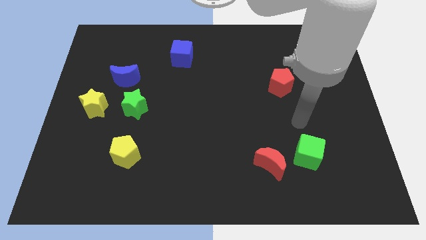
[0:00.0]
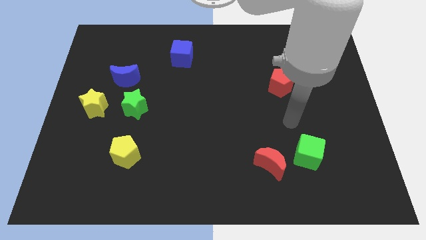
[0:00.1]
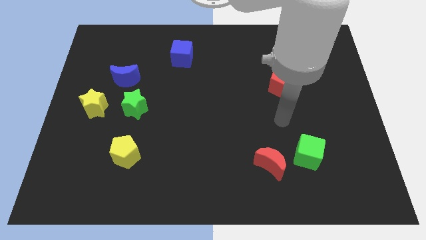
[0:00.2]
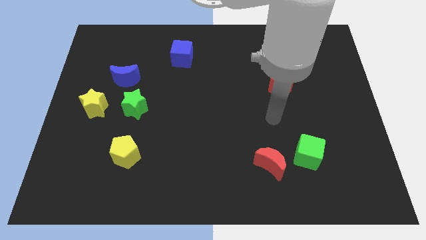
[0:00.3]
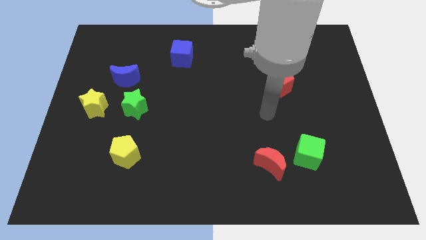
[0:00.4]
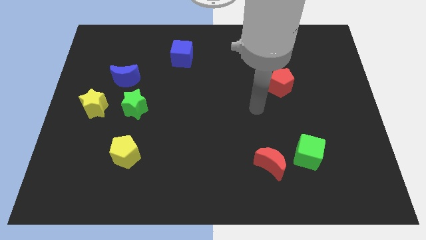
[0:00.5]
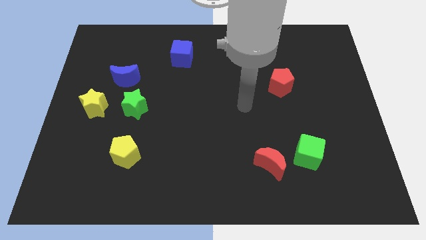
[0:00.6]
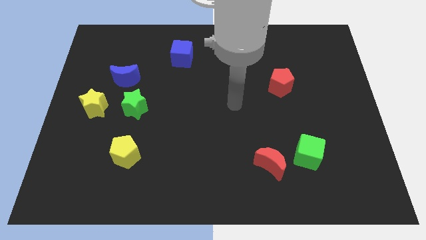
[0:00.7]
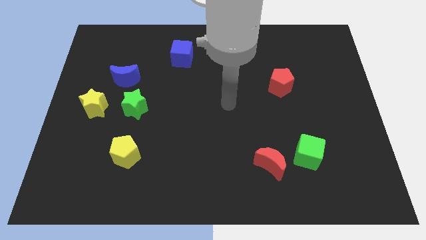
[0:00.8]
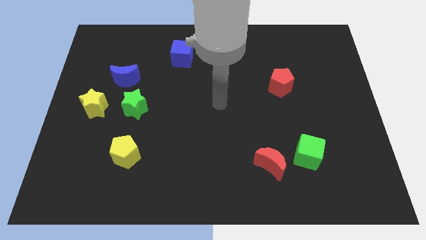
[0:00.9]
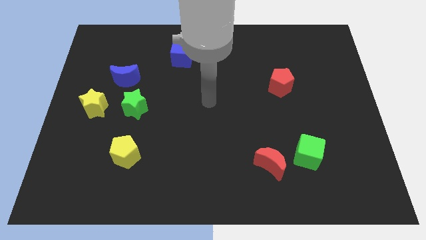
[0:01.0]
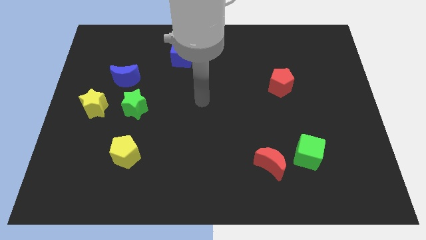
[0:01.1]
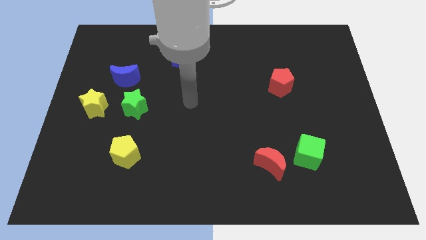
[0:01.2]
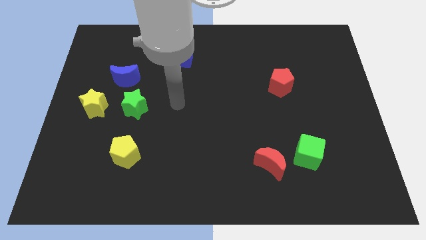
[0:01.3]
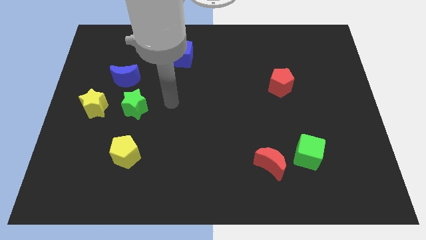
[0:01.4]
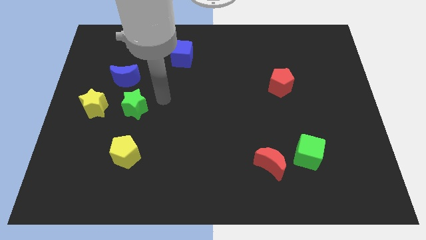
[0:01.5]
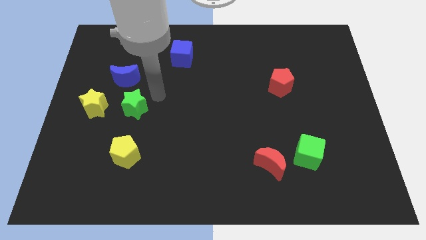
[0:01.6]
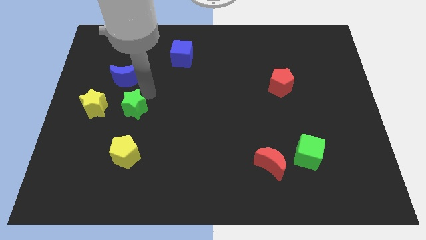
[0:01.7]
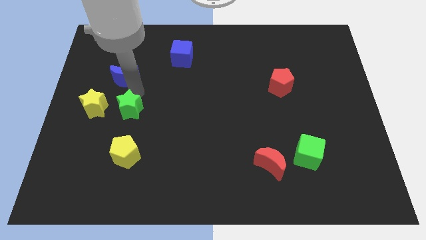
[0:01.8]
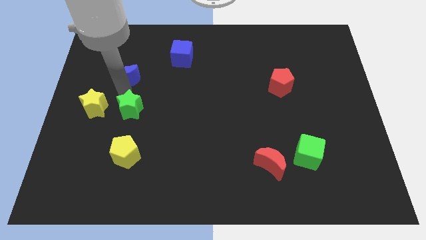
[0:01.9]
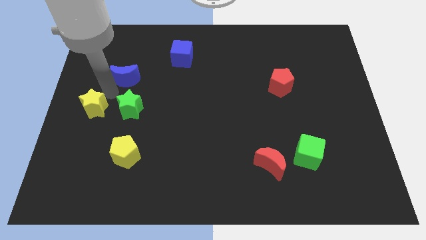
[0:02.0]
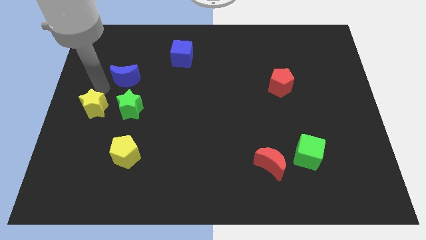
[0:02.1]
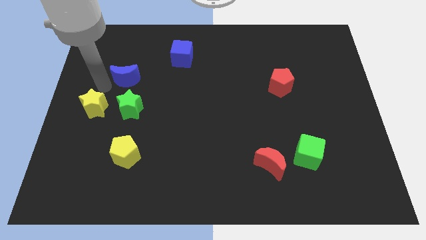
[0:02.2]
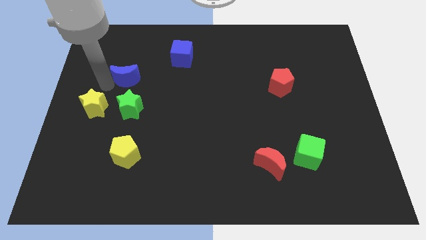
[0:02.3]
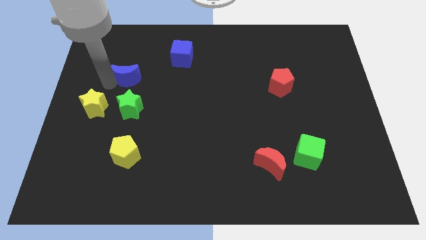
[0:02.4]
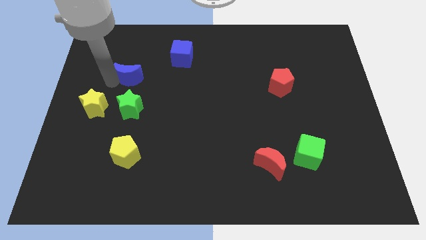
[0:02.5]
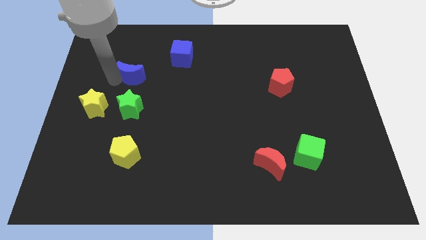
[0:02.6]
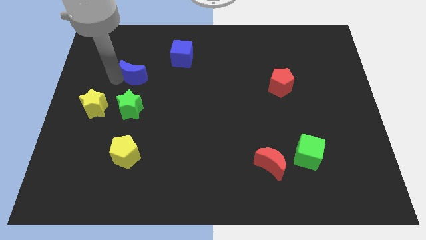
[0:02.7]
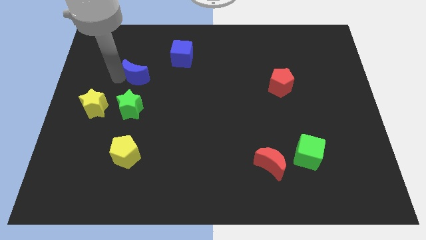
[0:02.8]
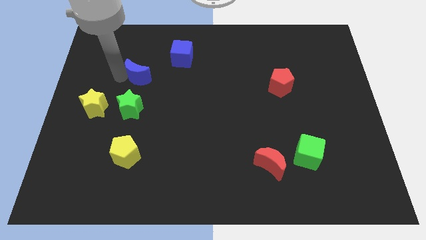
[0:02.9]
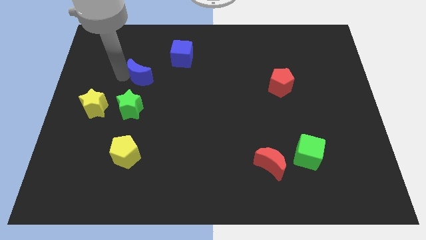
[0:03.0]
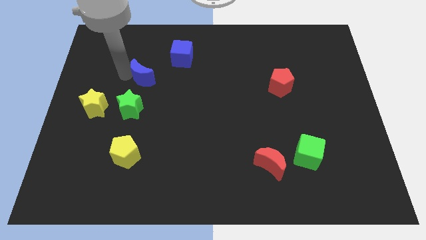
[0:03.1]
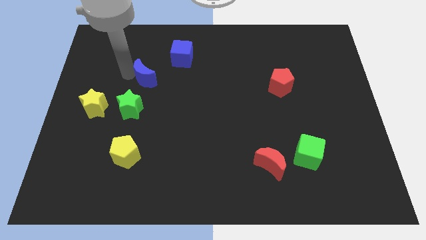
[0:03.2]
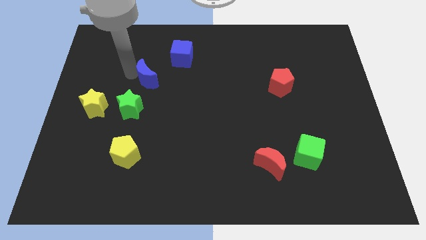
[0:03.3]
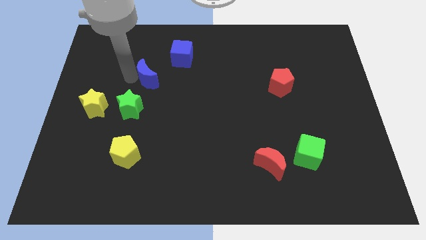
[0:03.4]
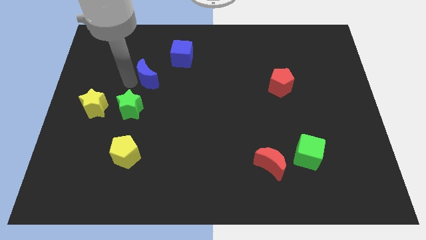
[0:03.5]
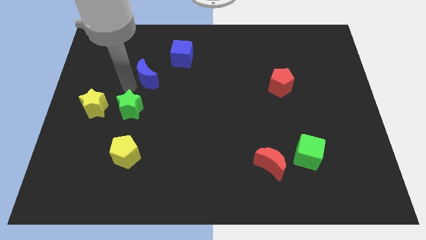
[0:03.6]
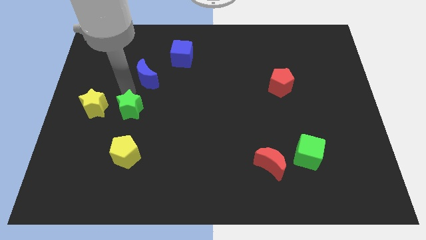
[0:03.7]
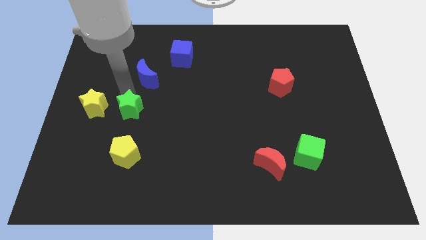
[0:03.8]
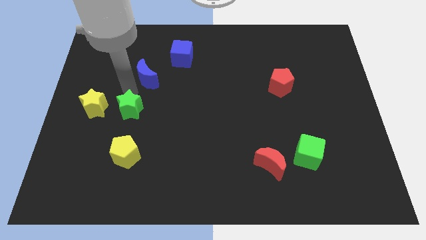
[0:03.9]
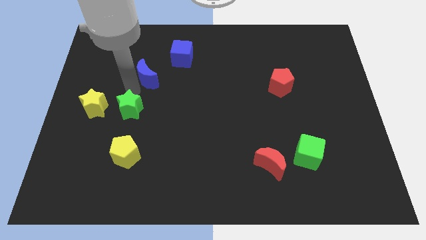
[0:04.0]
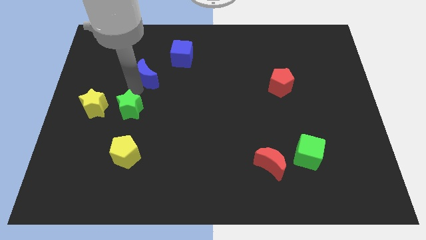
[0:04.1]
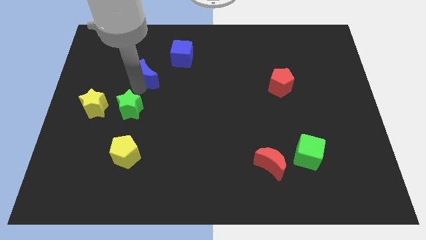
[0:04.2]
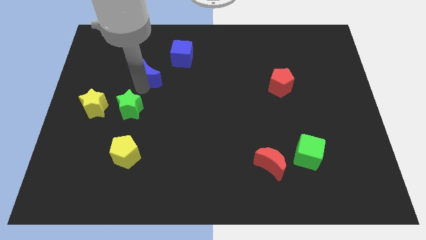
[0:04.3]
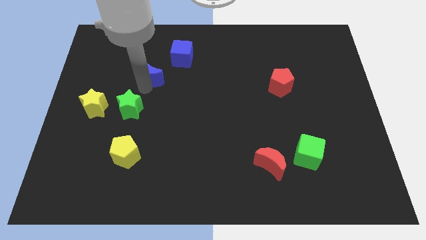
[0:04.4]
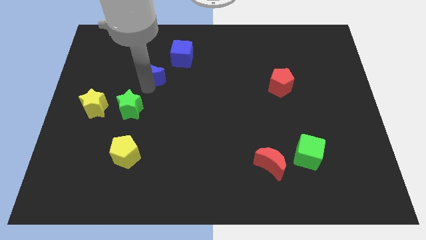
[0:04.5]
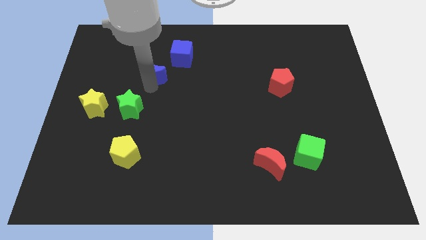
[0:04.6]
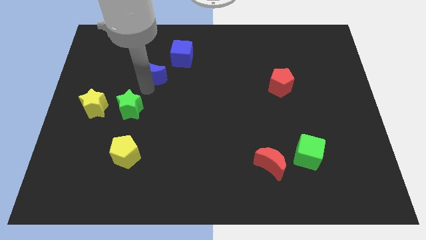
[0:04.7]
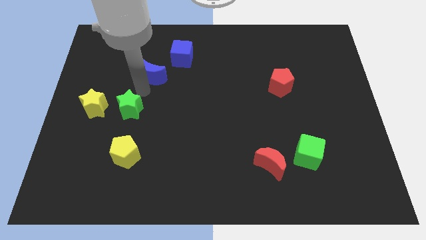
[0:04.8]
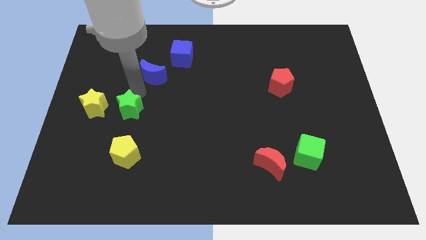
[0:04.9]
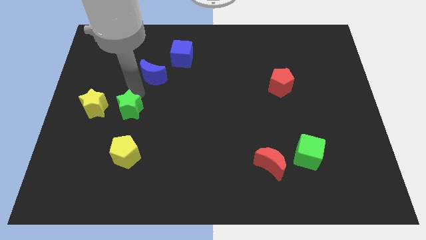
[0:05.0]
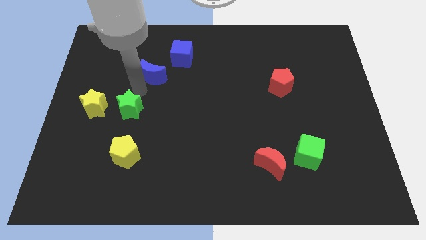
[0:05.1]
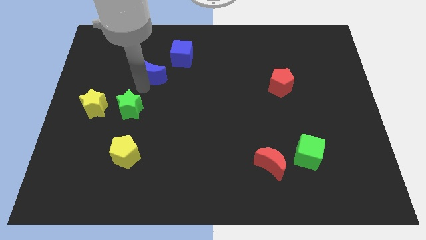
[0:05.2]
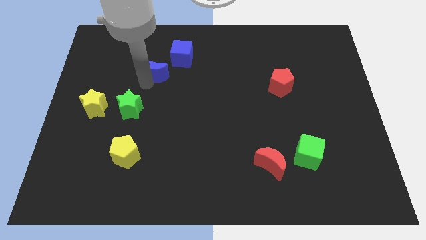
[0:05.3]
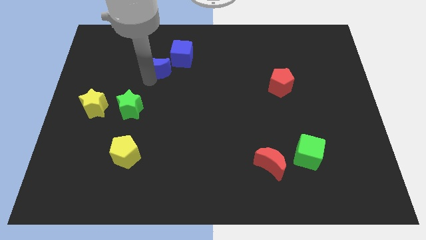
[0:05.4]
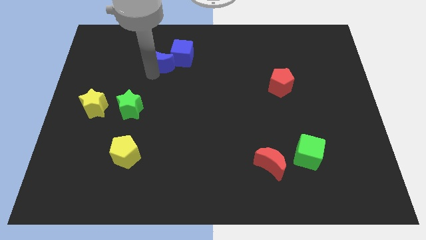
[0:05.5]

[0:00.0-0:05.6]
put the blue moon to the blue cube

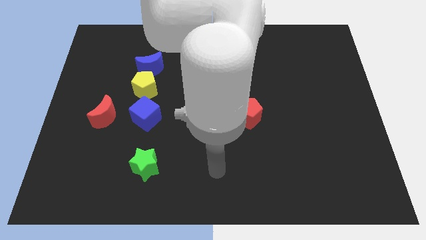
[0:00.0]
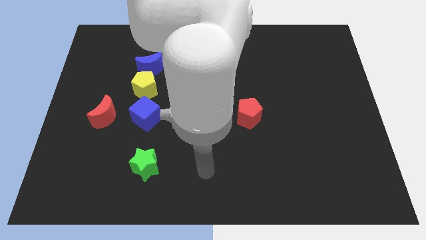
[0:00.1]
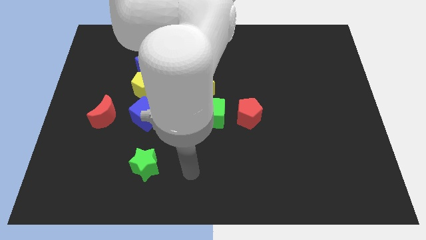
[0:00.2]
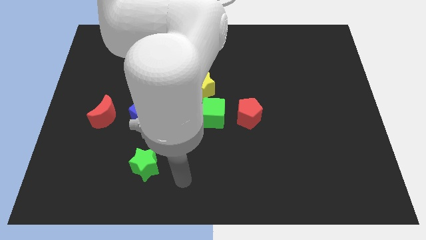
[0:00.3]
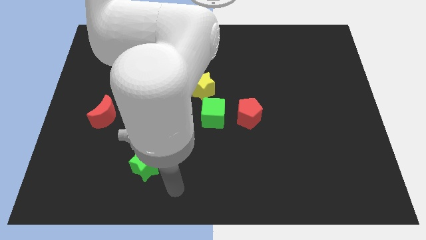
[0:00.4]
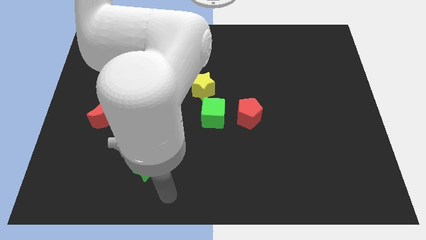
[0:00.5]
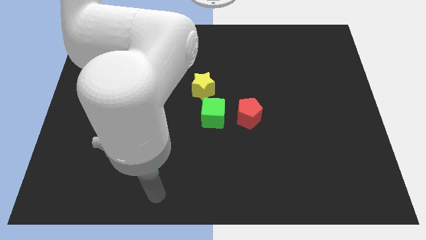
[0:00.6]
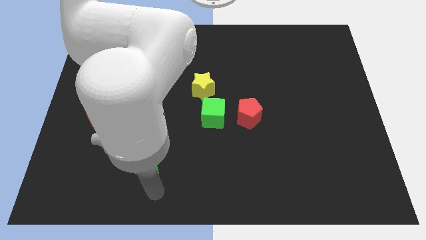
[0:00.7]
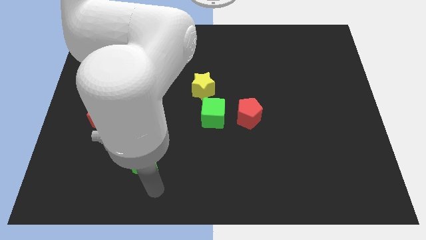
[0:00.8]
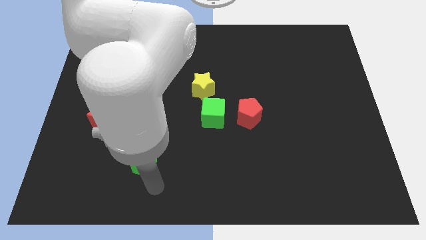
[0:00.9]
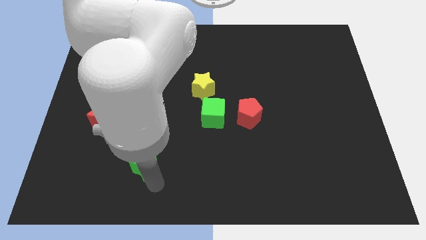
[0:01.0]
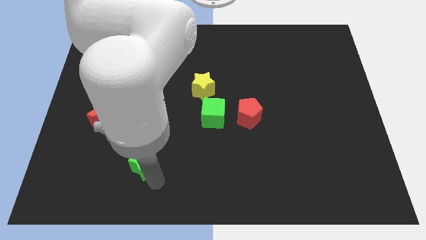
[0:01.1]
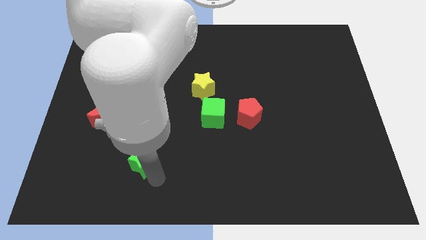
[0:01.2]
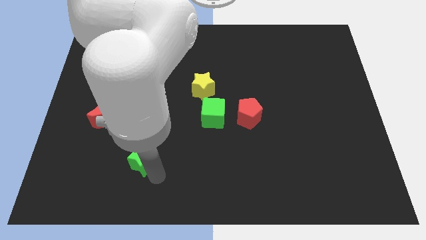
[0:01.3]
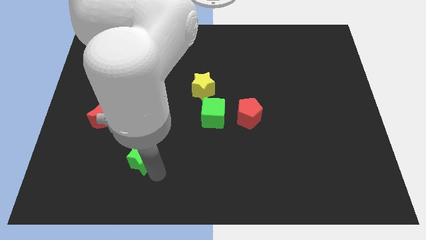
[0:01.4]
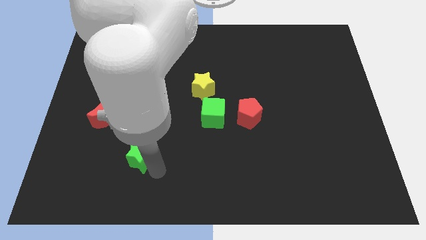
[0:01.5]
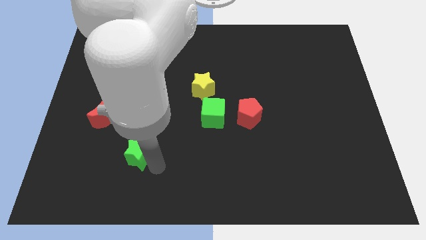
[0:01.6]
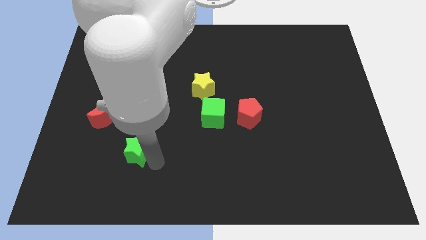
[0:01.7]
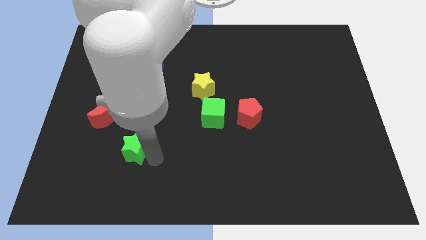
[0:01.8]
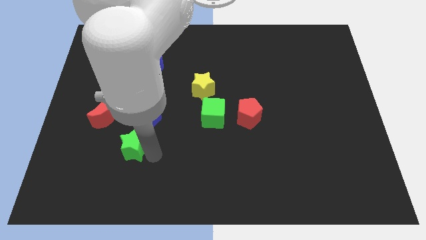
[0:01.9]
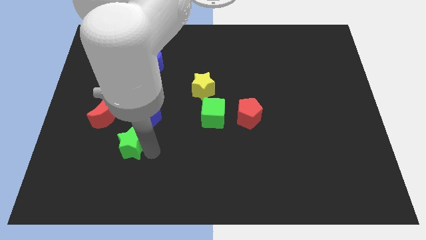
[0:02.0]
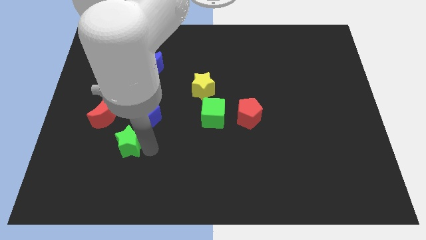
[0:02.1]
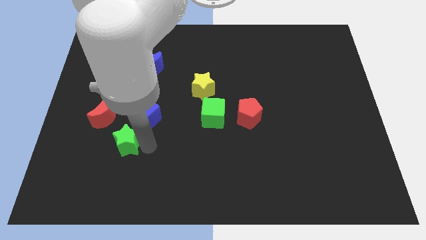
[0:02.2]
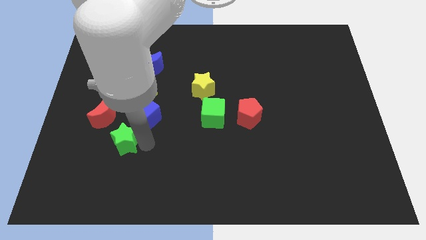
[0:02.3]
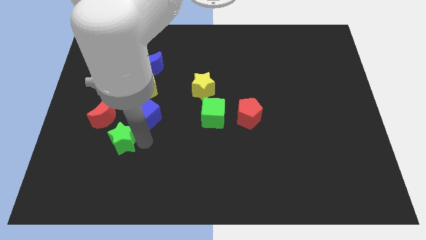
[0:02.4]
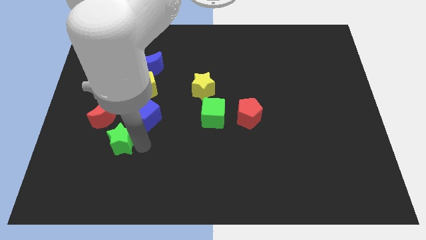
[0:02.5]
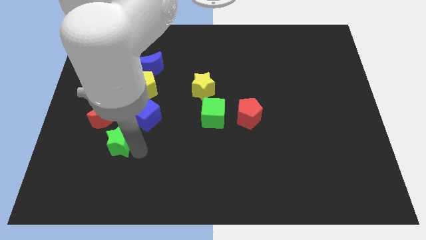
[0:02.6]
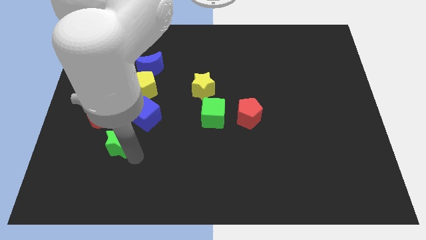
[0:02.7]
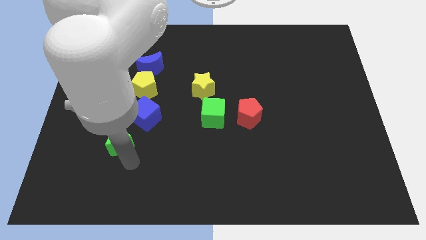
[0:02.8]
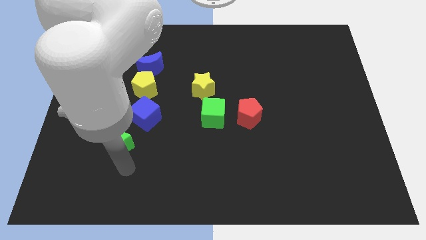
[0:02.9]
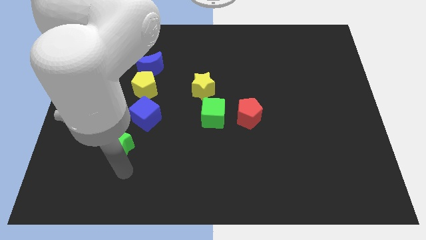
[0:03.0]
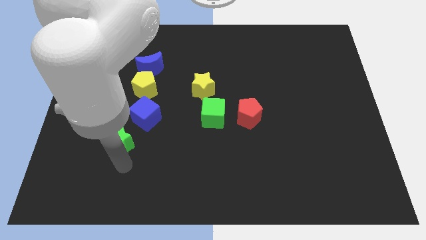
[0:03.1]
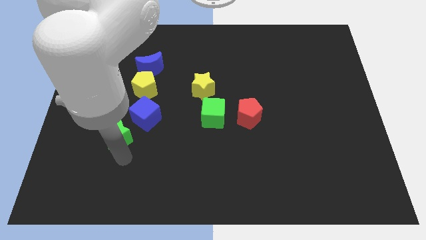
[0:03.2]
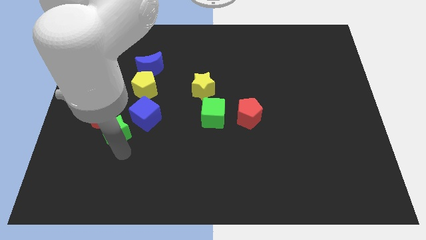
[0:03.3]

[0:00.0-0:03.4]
slide the green star towards the red moon
